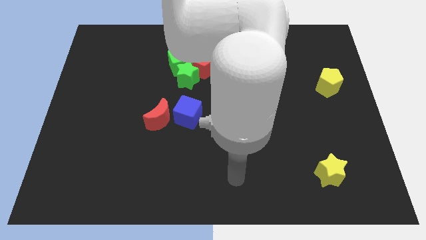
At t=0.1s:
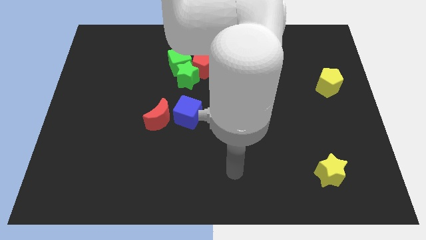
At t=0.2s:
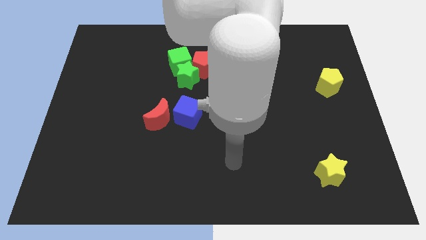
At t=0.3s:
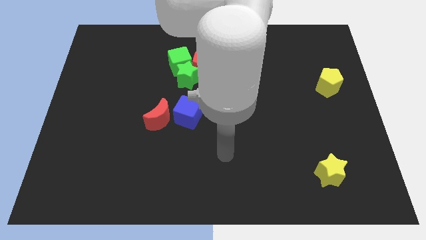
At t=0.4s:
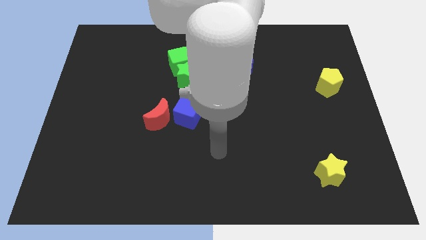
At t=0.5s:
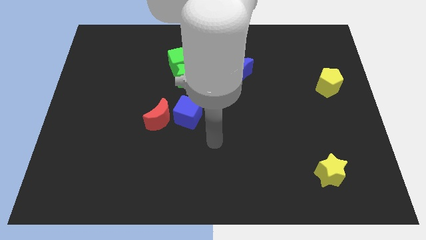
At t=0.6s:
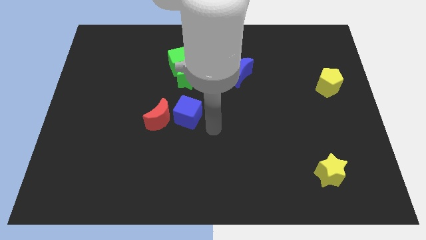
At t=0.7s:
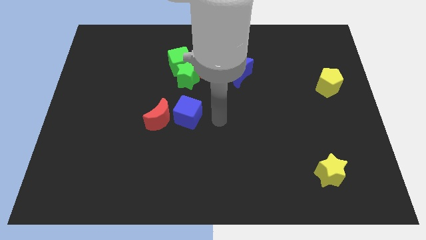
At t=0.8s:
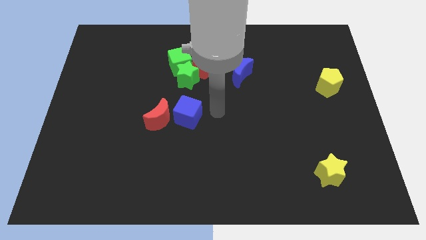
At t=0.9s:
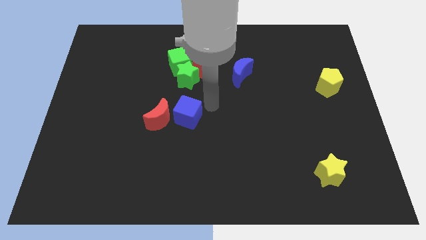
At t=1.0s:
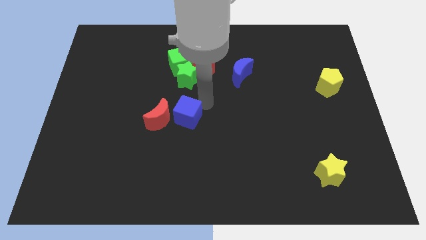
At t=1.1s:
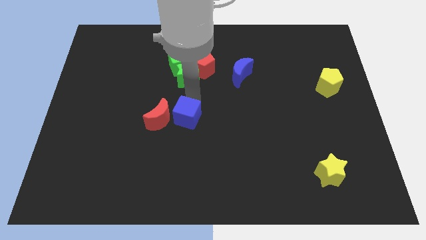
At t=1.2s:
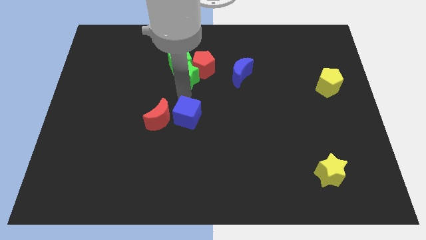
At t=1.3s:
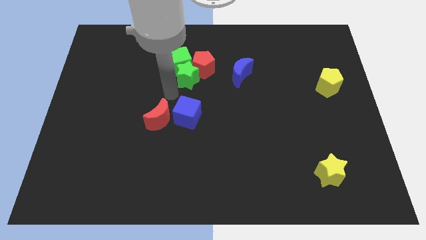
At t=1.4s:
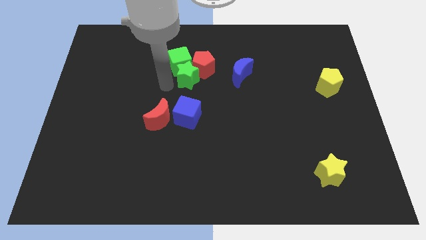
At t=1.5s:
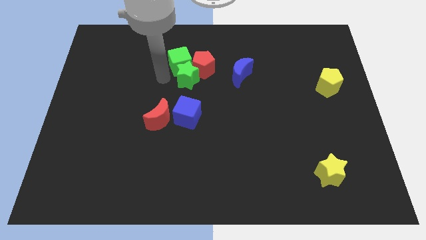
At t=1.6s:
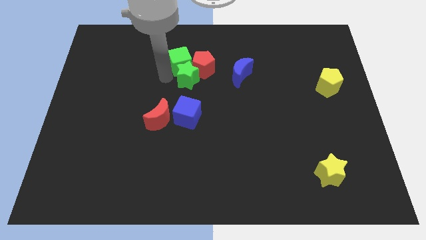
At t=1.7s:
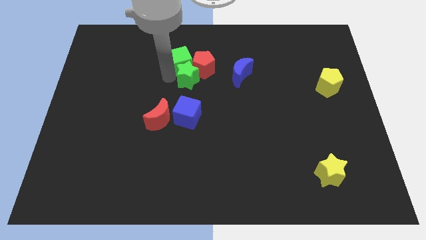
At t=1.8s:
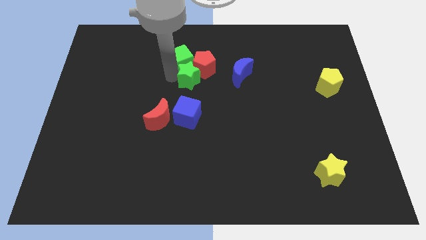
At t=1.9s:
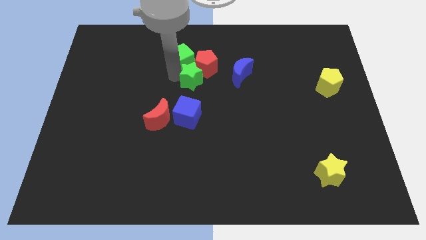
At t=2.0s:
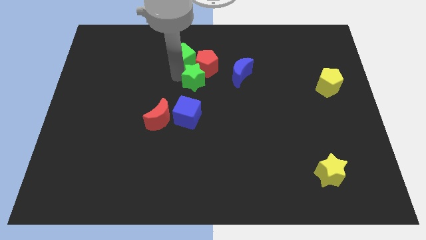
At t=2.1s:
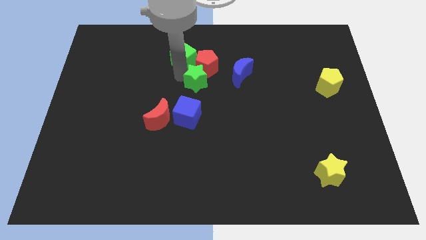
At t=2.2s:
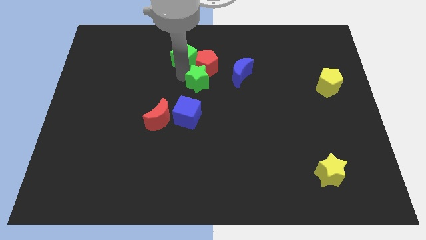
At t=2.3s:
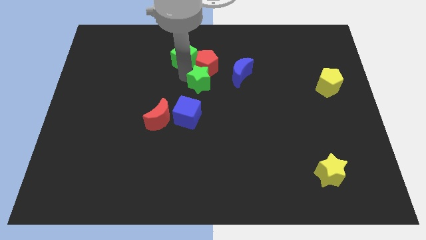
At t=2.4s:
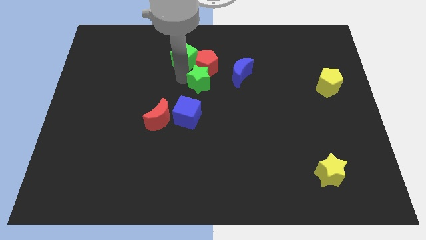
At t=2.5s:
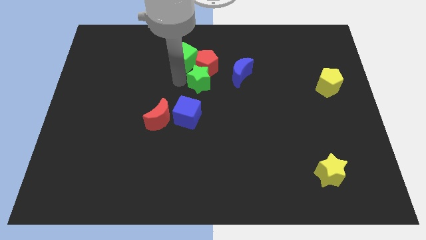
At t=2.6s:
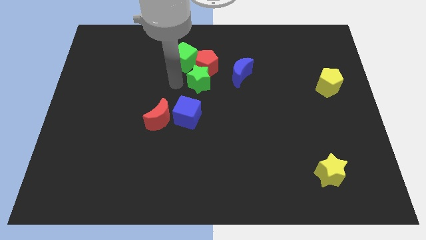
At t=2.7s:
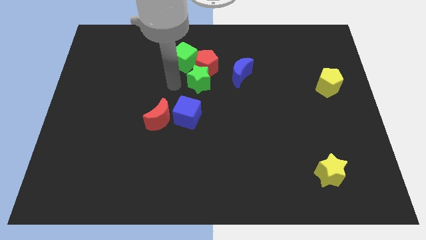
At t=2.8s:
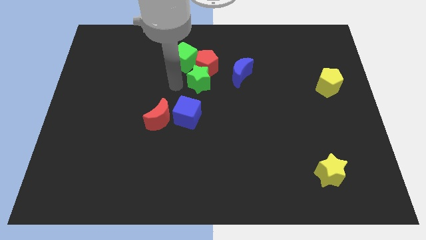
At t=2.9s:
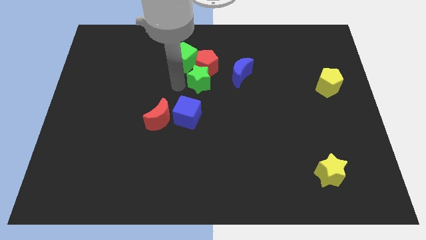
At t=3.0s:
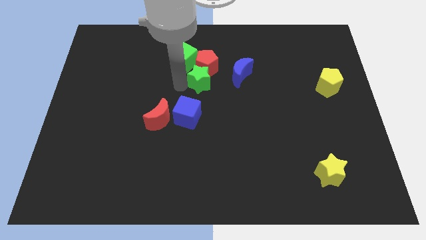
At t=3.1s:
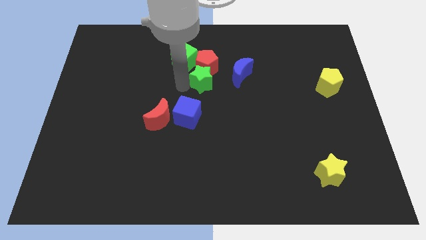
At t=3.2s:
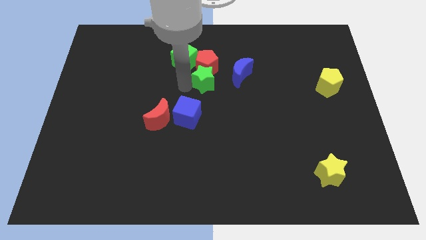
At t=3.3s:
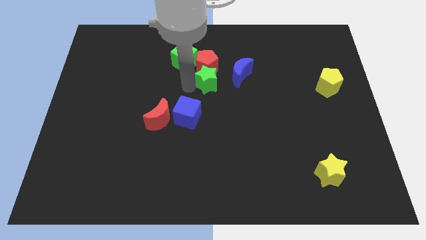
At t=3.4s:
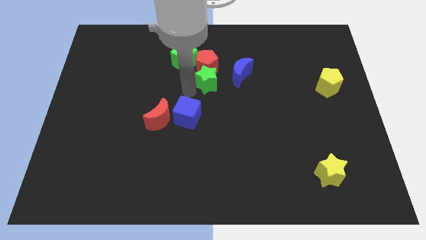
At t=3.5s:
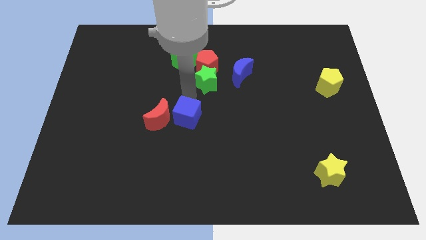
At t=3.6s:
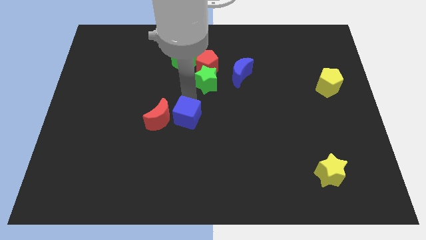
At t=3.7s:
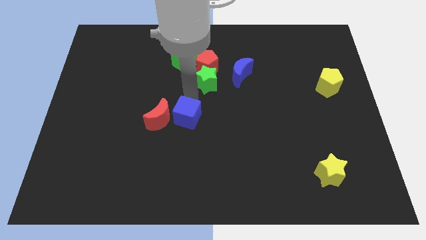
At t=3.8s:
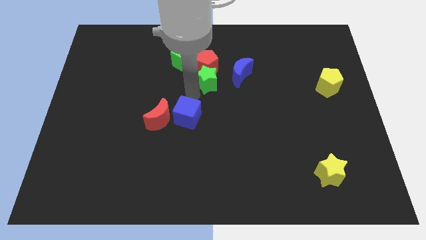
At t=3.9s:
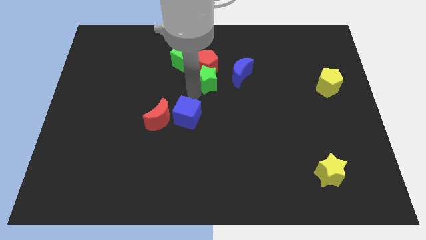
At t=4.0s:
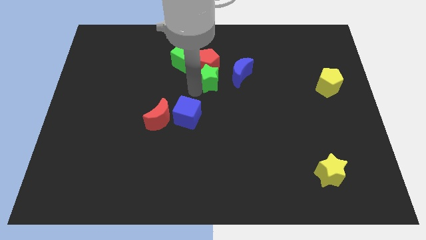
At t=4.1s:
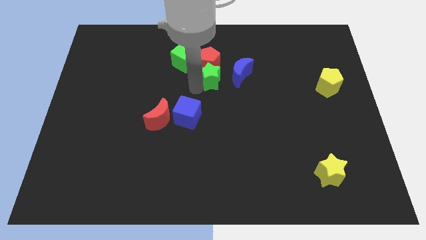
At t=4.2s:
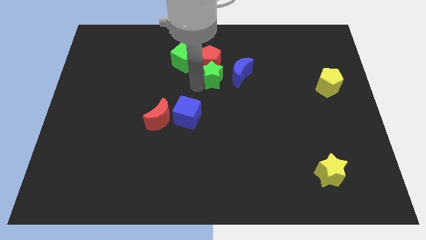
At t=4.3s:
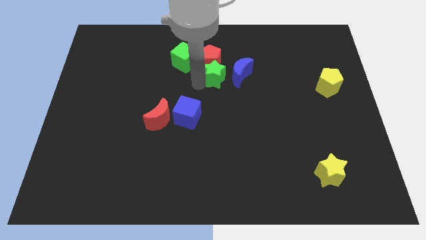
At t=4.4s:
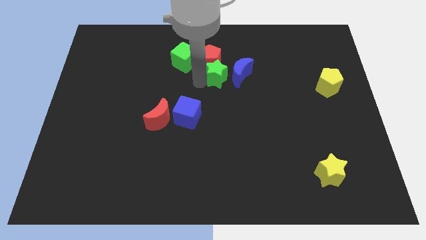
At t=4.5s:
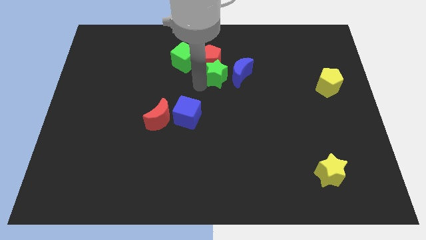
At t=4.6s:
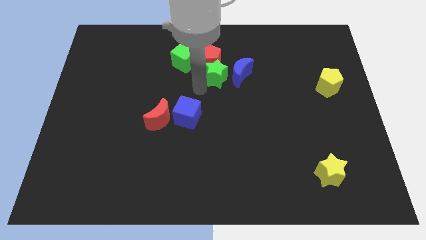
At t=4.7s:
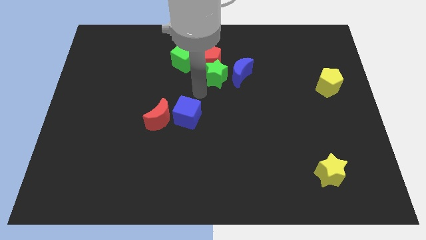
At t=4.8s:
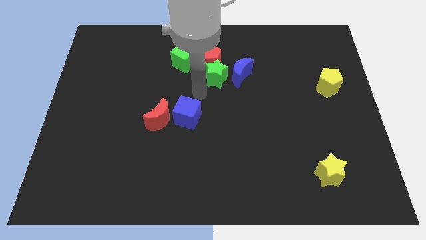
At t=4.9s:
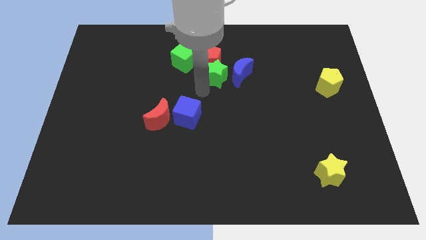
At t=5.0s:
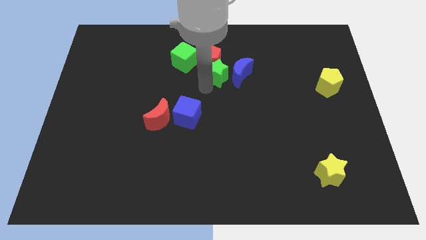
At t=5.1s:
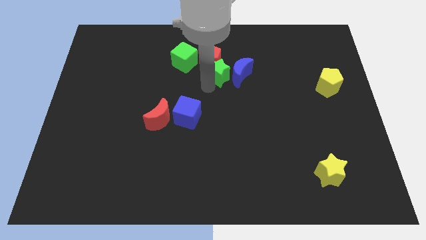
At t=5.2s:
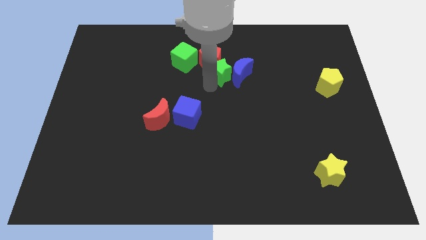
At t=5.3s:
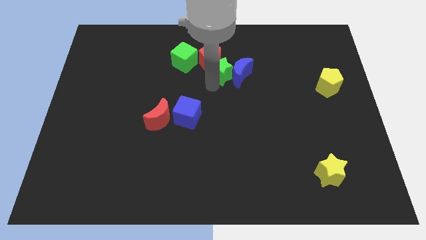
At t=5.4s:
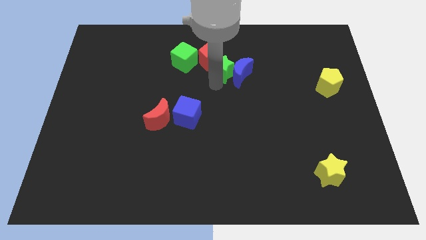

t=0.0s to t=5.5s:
put the green star just right of the red pentagon

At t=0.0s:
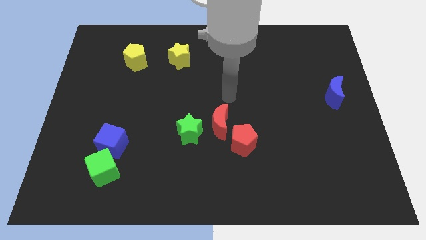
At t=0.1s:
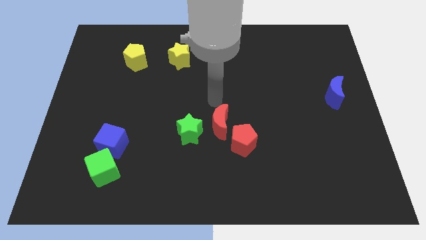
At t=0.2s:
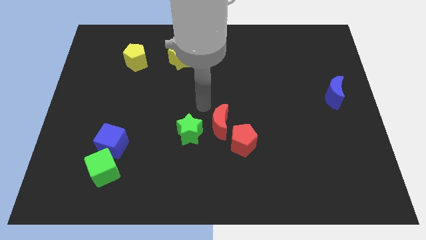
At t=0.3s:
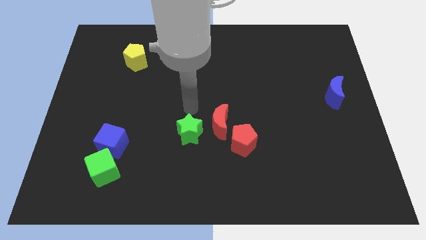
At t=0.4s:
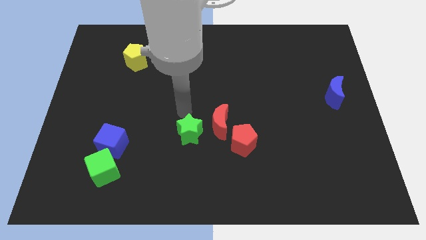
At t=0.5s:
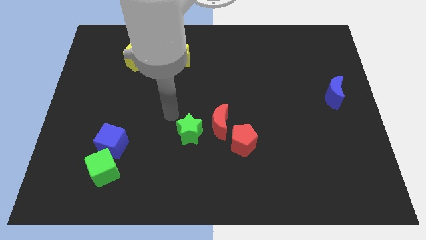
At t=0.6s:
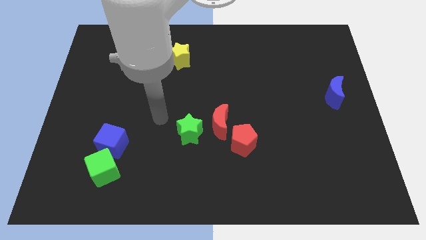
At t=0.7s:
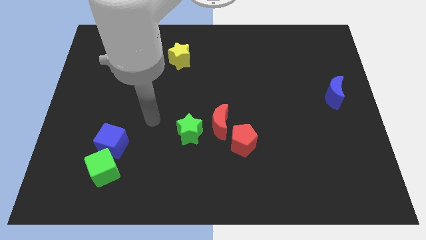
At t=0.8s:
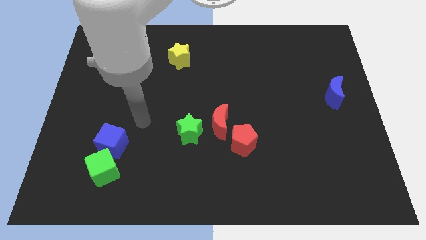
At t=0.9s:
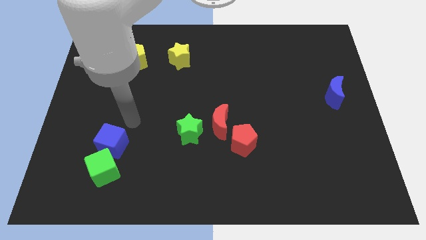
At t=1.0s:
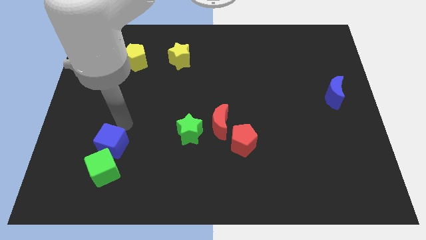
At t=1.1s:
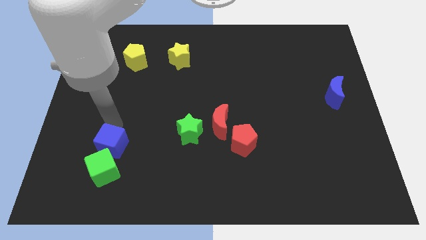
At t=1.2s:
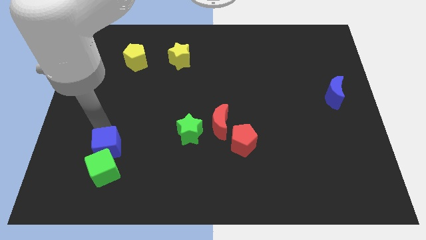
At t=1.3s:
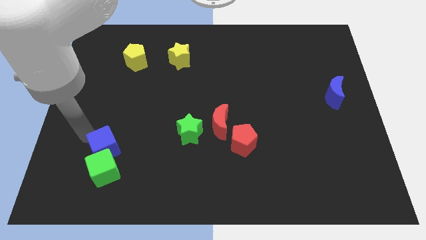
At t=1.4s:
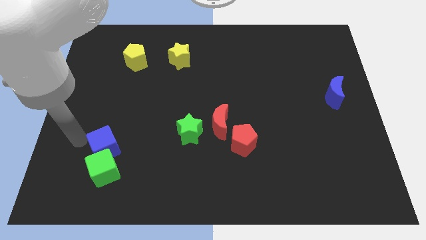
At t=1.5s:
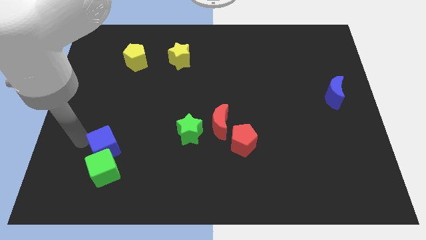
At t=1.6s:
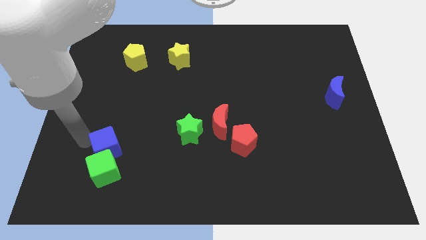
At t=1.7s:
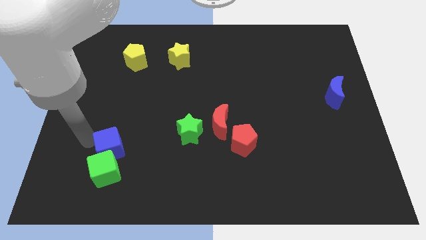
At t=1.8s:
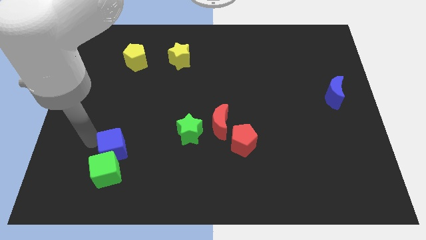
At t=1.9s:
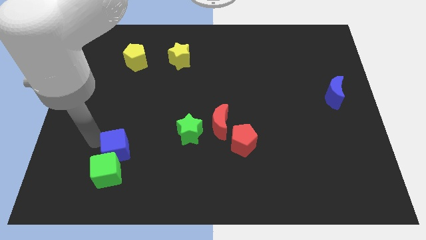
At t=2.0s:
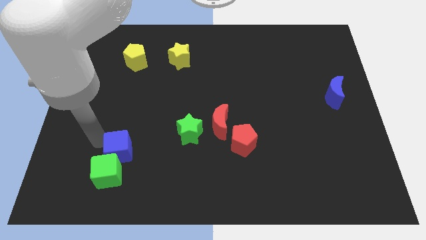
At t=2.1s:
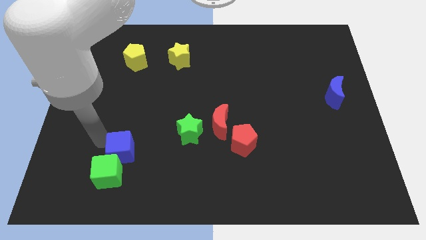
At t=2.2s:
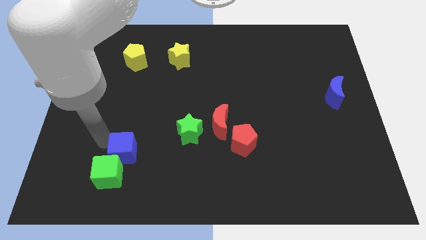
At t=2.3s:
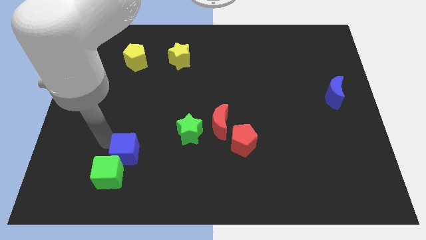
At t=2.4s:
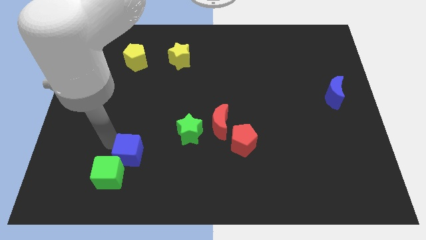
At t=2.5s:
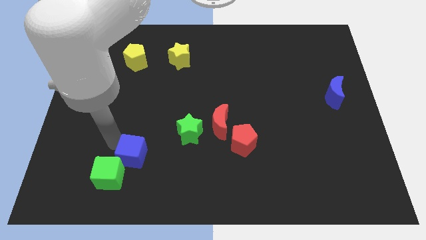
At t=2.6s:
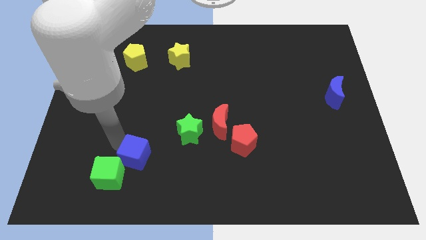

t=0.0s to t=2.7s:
put the blue cube just right of the green cube
